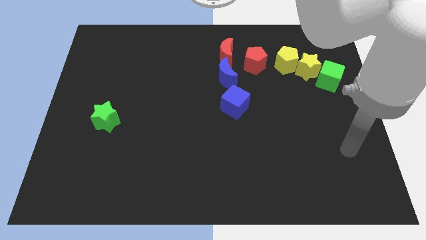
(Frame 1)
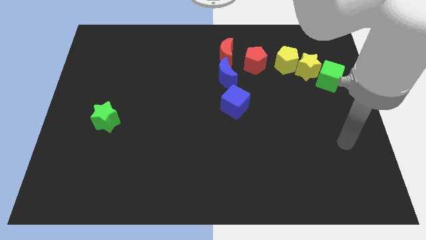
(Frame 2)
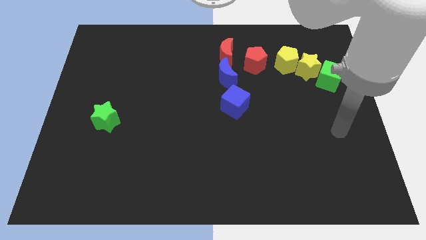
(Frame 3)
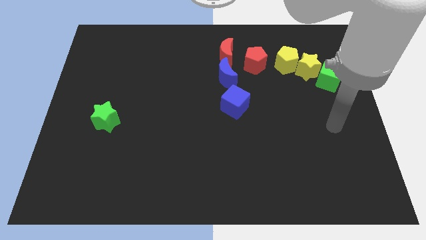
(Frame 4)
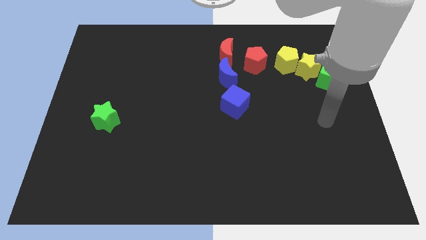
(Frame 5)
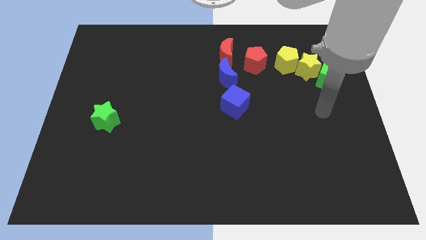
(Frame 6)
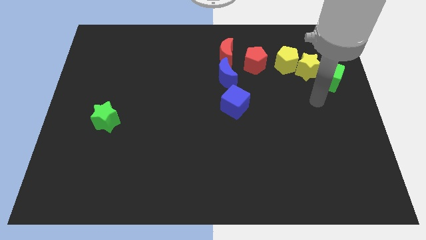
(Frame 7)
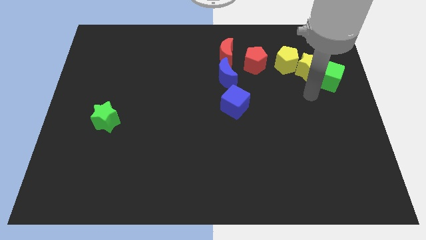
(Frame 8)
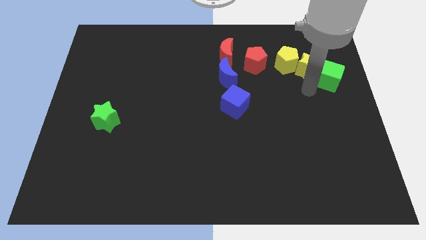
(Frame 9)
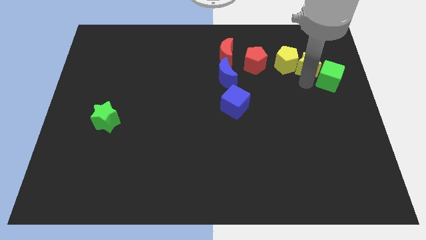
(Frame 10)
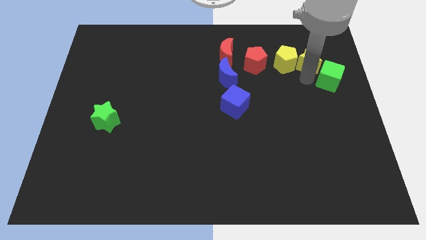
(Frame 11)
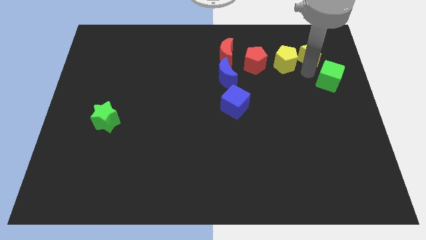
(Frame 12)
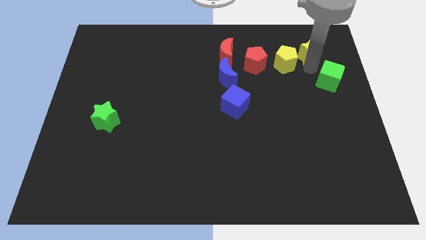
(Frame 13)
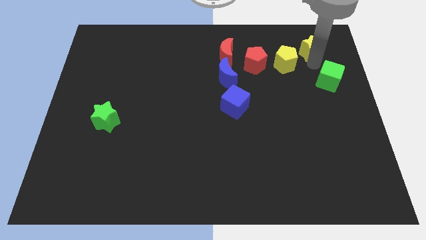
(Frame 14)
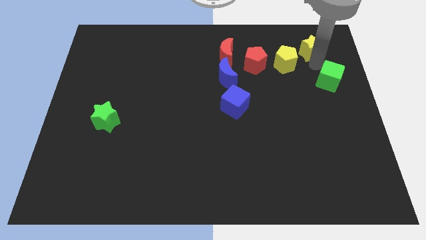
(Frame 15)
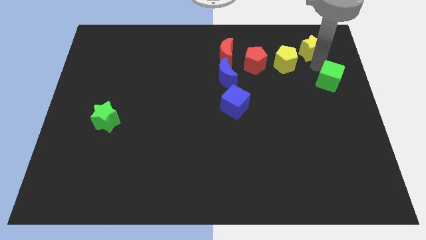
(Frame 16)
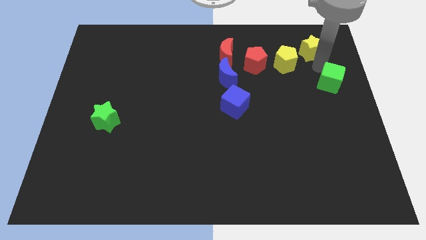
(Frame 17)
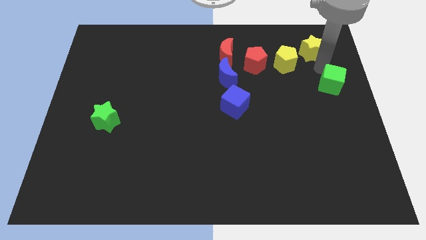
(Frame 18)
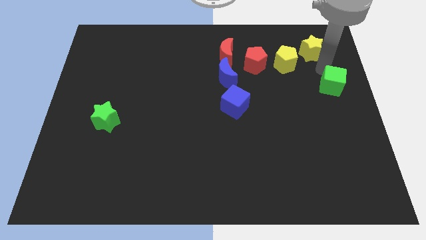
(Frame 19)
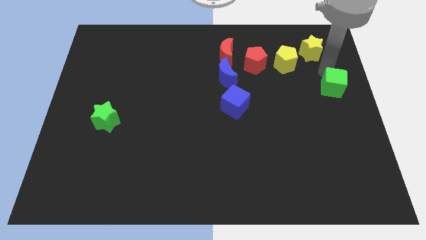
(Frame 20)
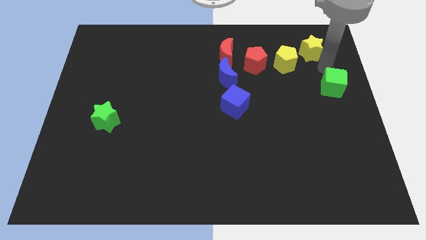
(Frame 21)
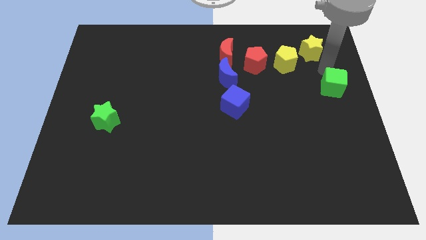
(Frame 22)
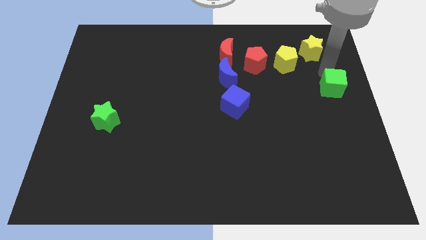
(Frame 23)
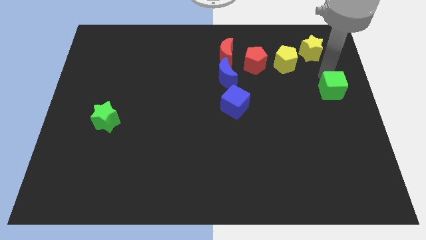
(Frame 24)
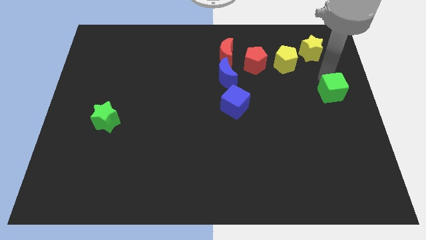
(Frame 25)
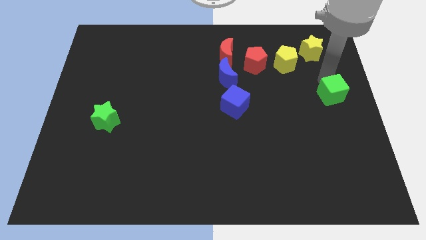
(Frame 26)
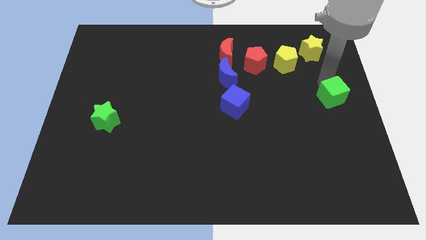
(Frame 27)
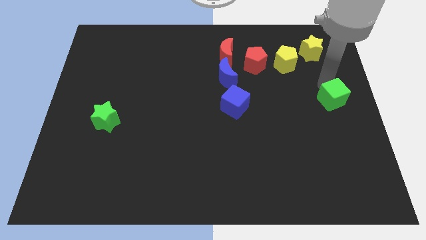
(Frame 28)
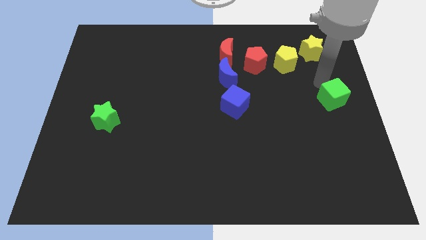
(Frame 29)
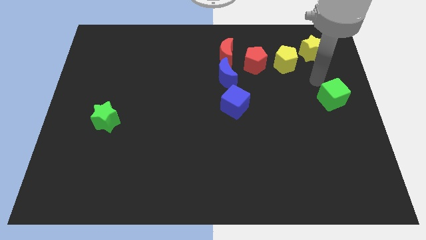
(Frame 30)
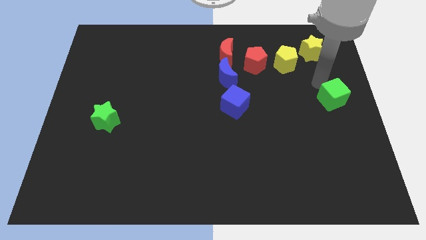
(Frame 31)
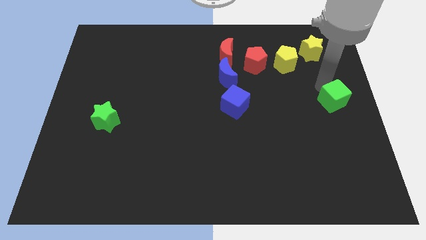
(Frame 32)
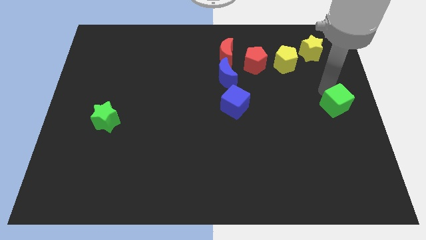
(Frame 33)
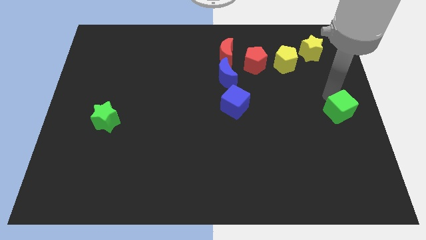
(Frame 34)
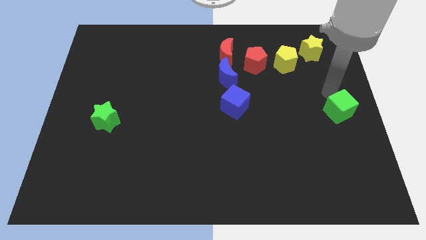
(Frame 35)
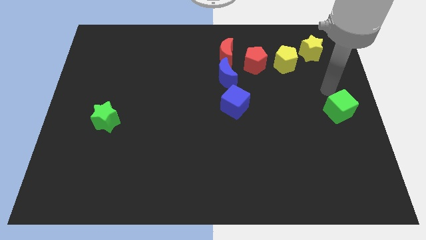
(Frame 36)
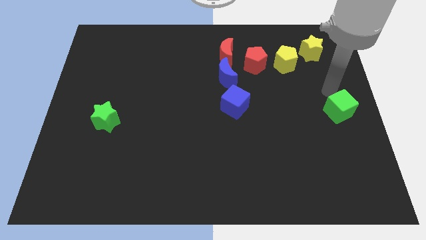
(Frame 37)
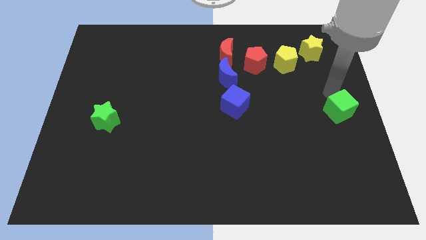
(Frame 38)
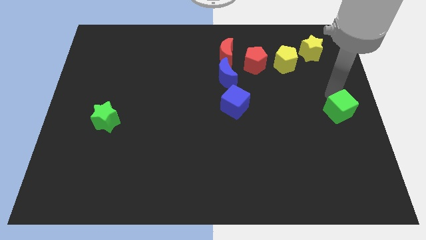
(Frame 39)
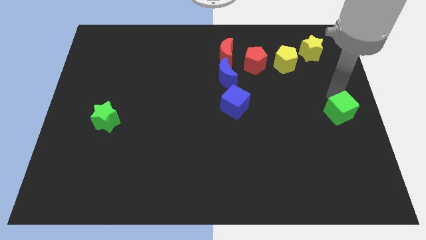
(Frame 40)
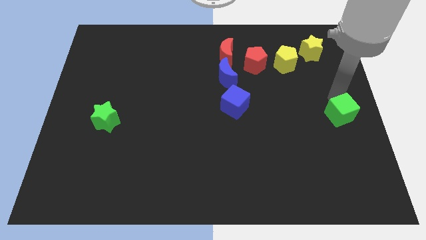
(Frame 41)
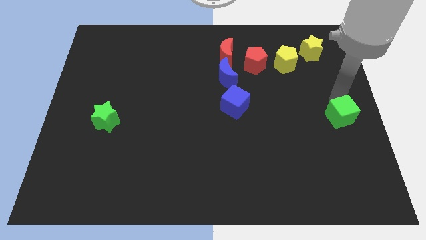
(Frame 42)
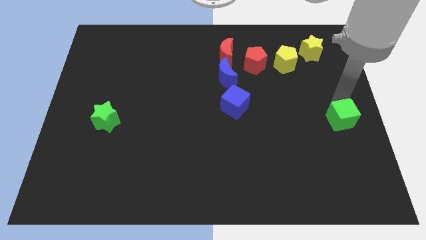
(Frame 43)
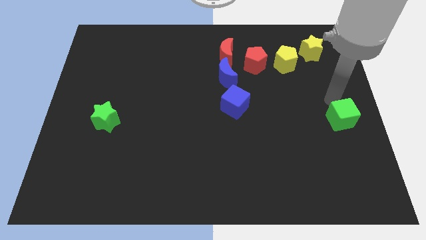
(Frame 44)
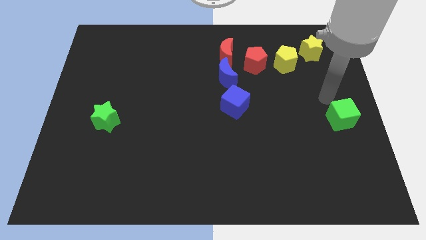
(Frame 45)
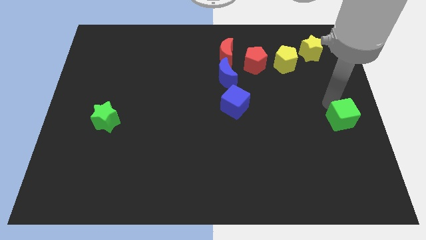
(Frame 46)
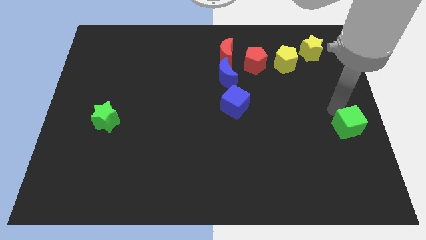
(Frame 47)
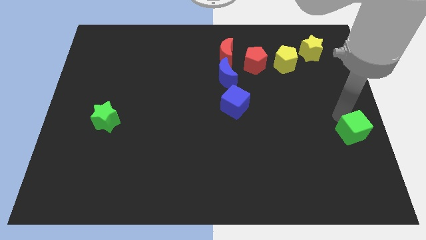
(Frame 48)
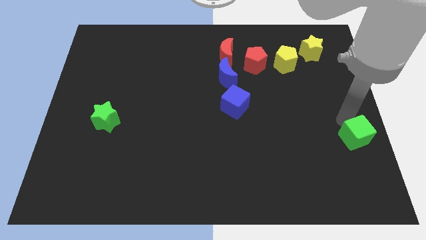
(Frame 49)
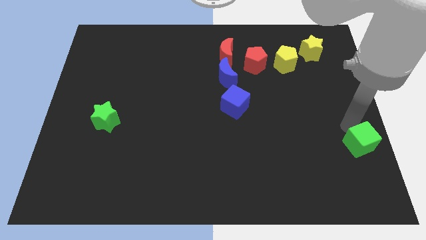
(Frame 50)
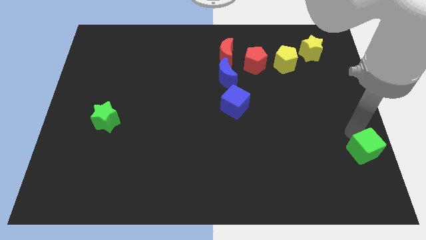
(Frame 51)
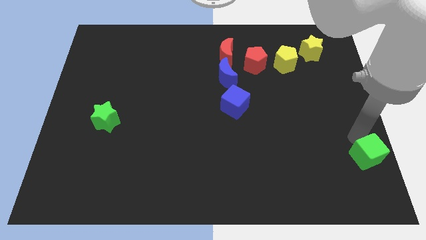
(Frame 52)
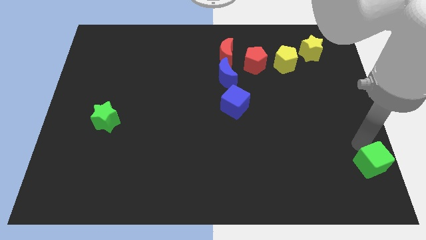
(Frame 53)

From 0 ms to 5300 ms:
put the green cube to the bottom right of the board

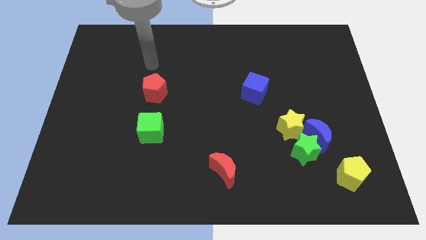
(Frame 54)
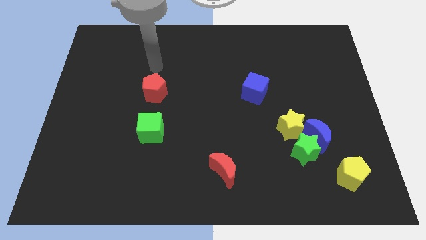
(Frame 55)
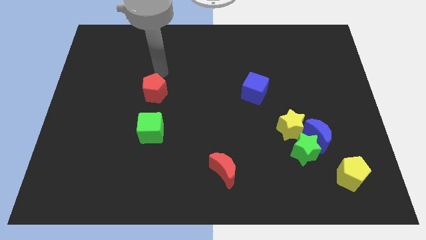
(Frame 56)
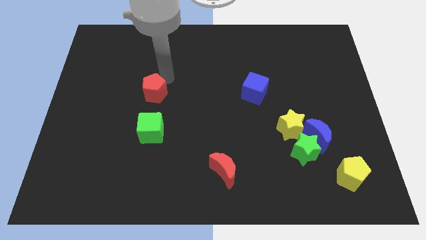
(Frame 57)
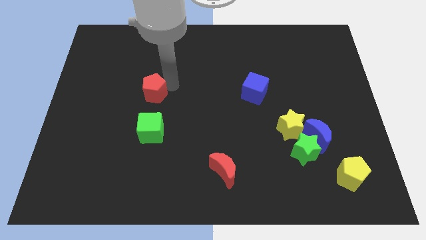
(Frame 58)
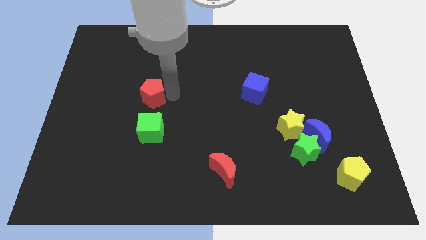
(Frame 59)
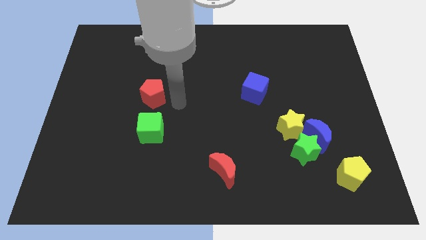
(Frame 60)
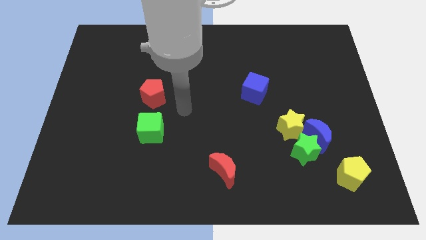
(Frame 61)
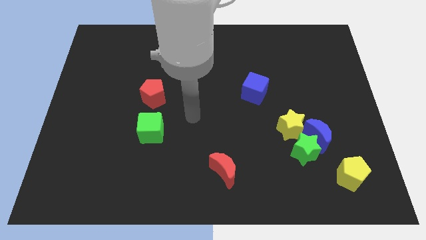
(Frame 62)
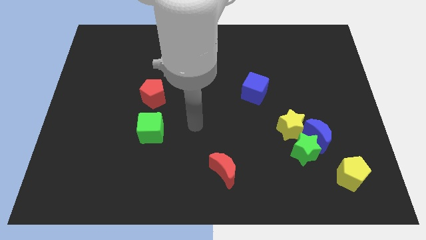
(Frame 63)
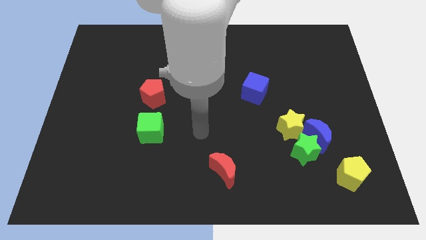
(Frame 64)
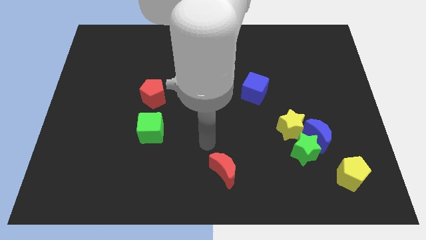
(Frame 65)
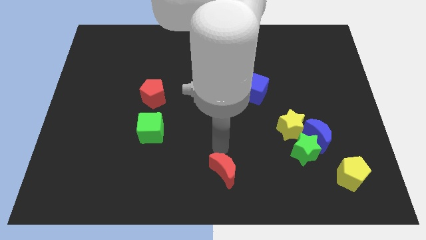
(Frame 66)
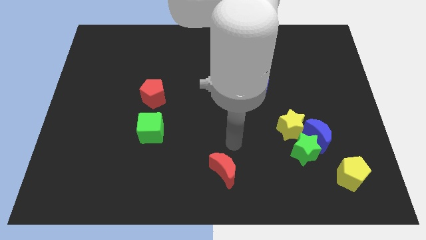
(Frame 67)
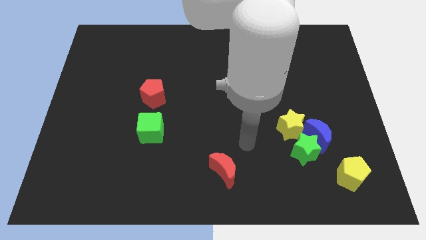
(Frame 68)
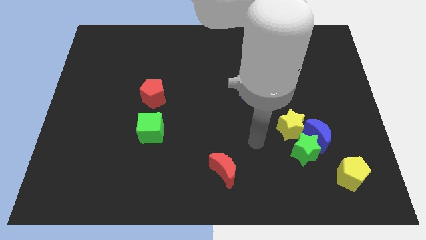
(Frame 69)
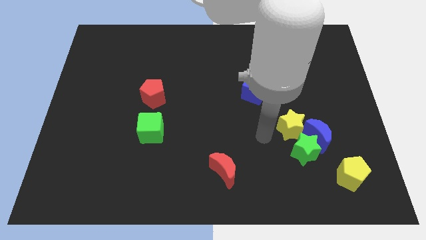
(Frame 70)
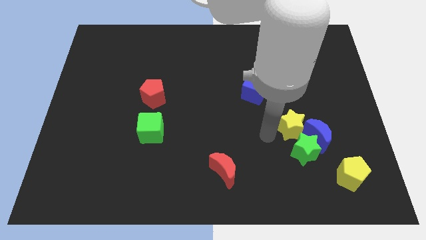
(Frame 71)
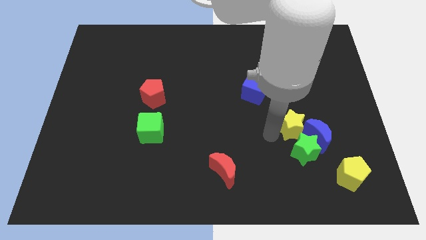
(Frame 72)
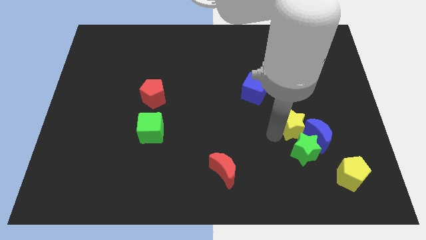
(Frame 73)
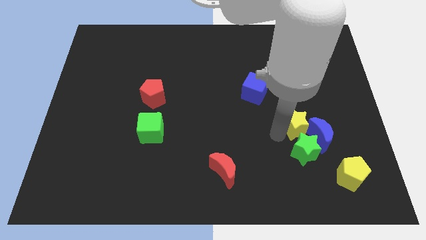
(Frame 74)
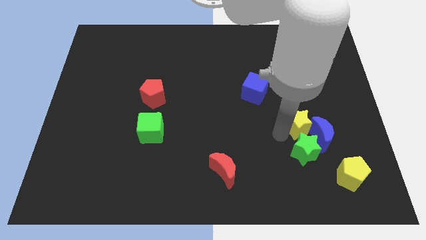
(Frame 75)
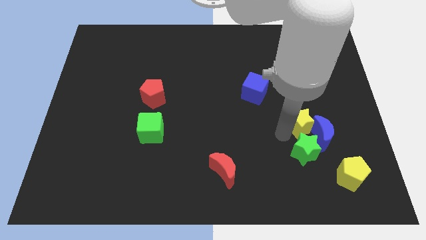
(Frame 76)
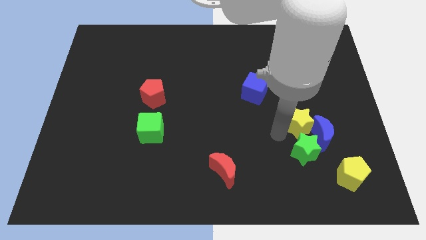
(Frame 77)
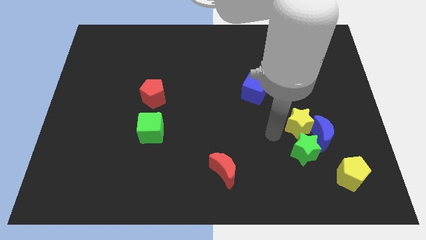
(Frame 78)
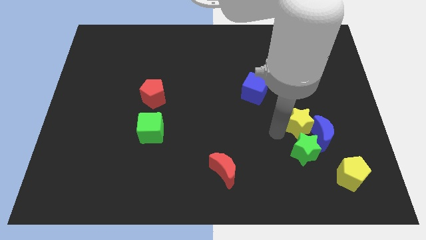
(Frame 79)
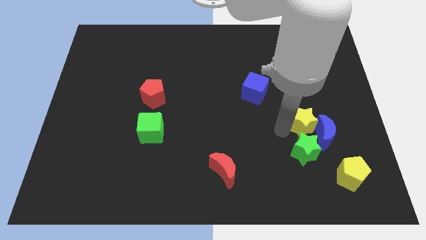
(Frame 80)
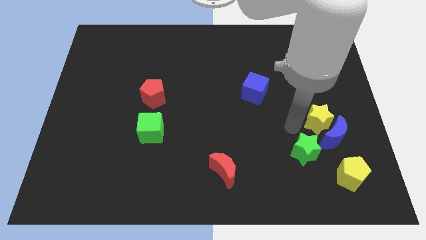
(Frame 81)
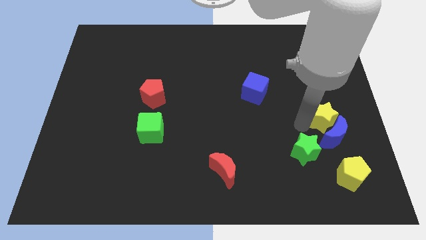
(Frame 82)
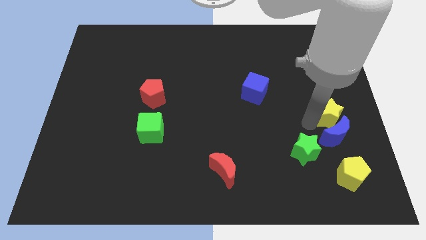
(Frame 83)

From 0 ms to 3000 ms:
slide the yellow star to the center right
